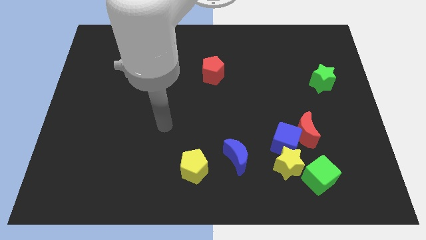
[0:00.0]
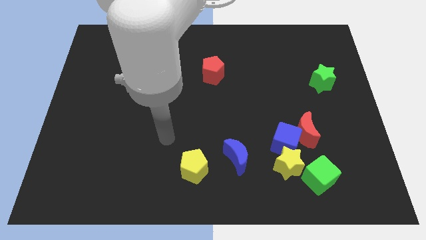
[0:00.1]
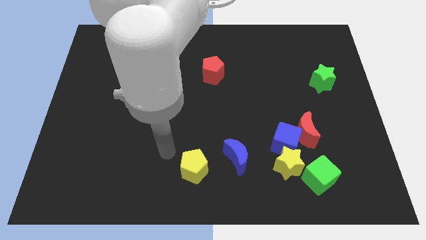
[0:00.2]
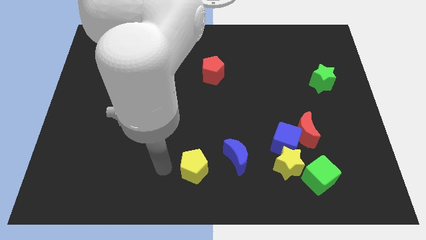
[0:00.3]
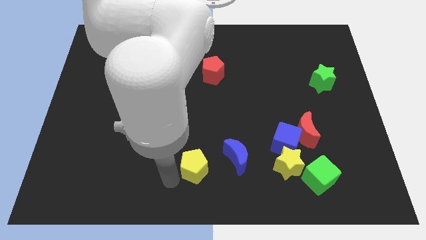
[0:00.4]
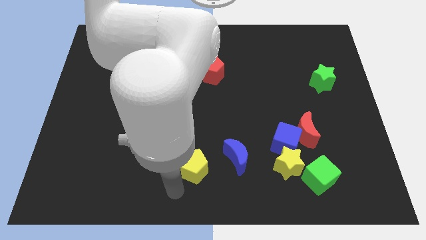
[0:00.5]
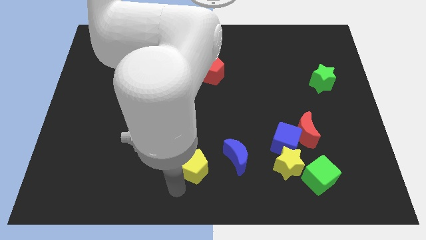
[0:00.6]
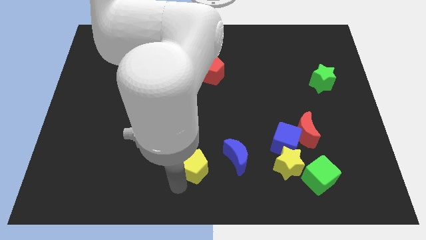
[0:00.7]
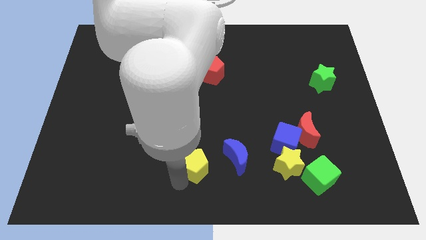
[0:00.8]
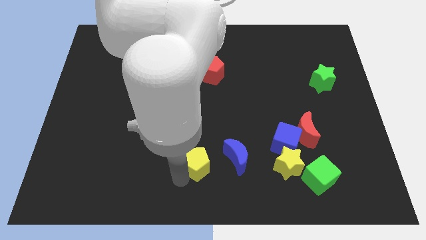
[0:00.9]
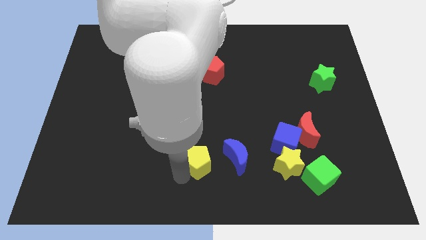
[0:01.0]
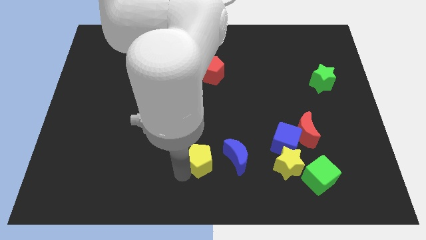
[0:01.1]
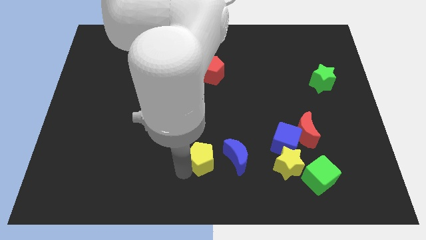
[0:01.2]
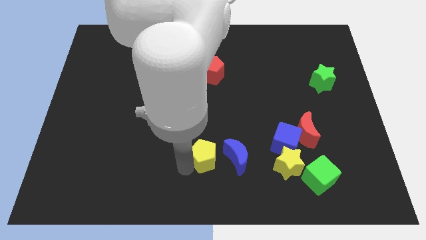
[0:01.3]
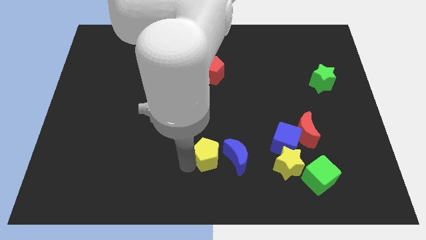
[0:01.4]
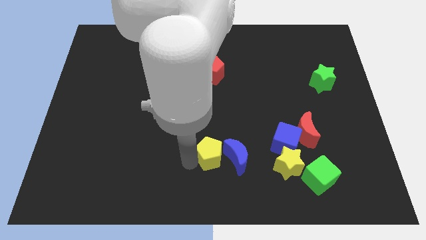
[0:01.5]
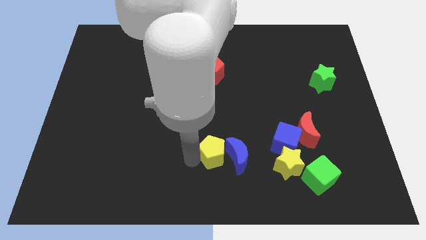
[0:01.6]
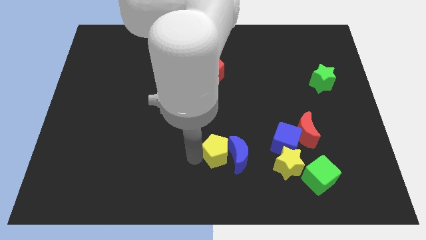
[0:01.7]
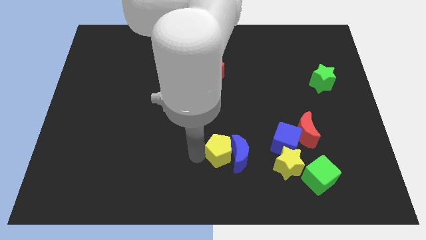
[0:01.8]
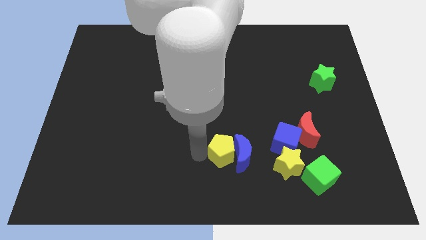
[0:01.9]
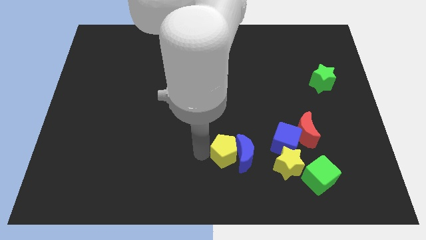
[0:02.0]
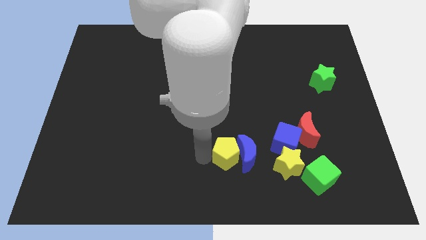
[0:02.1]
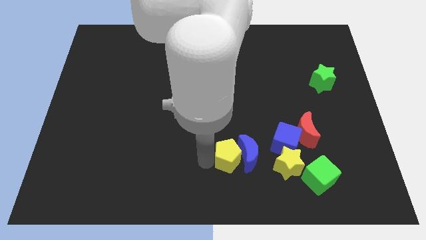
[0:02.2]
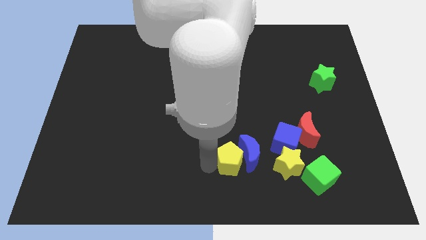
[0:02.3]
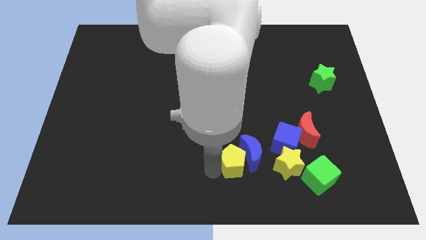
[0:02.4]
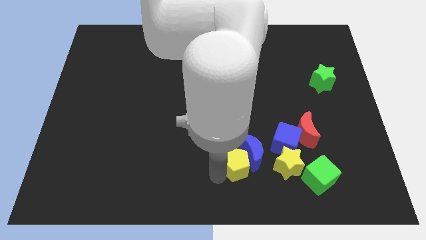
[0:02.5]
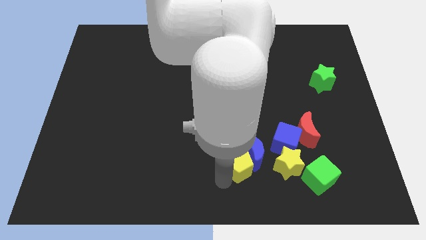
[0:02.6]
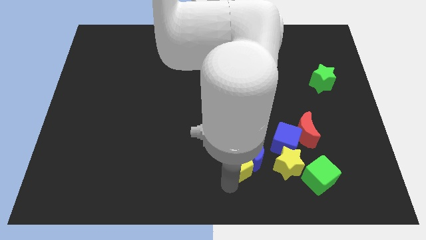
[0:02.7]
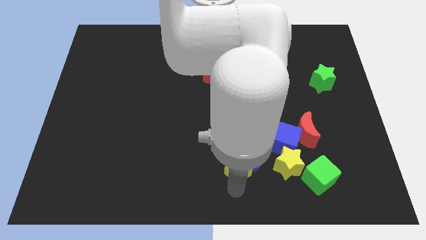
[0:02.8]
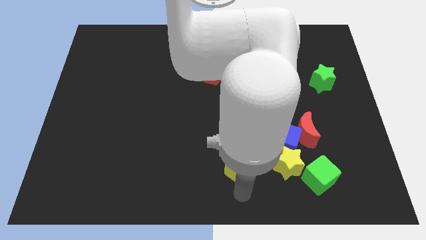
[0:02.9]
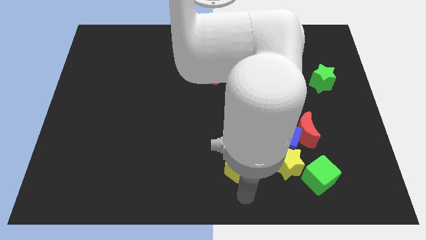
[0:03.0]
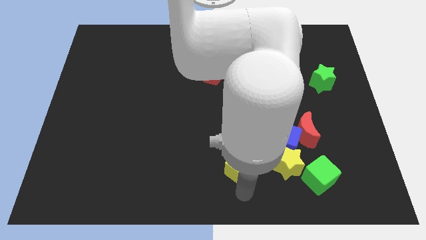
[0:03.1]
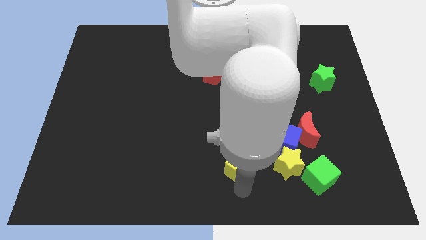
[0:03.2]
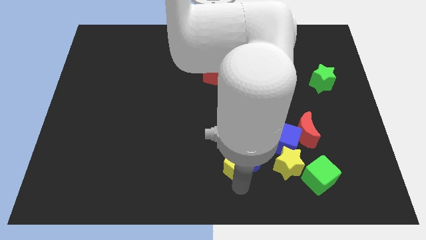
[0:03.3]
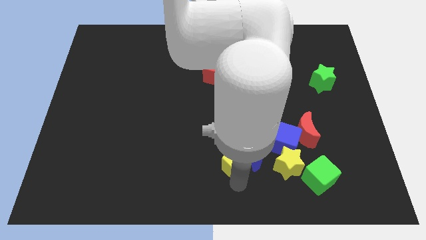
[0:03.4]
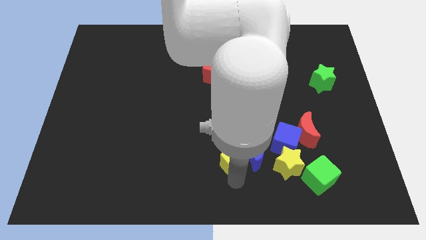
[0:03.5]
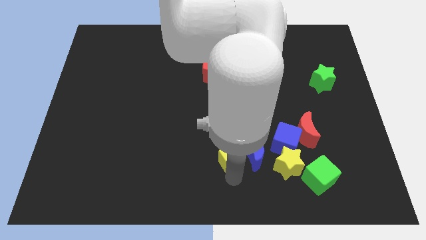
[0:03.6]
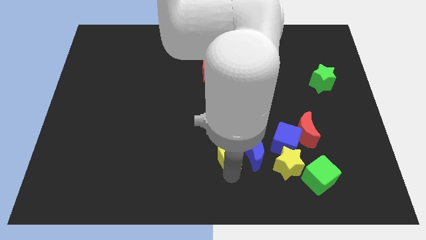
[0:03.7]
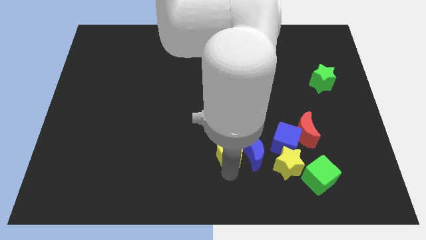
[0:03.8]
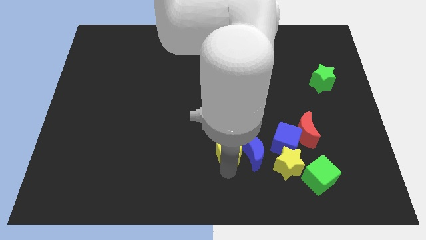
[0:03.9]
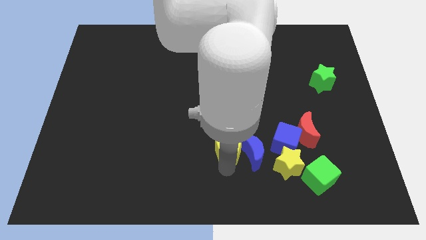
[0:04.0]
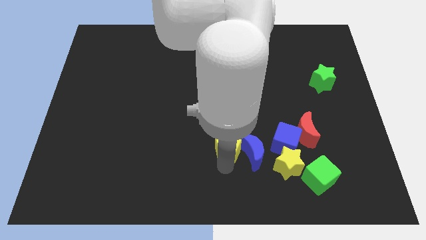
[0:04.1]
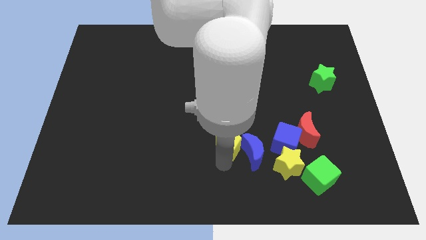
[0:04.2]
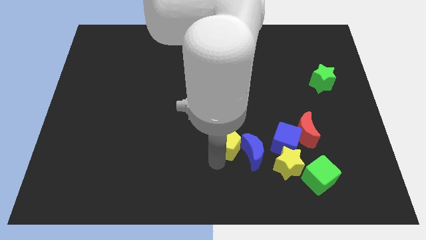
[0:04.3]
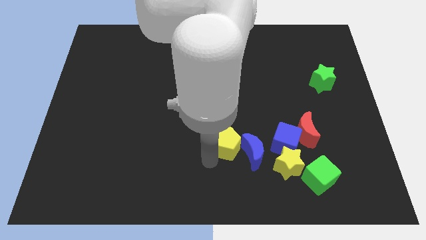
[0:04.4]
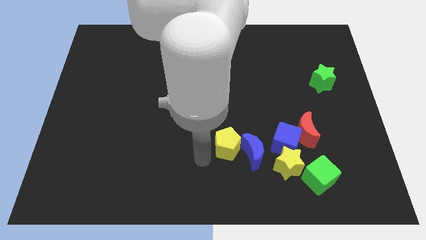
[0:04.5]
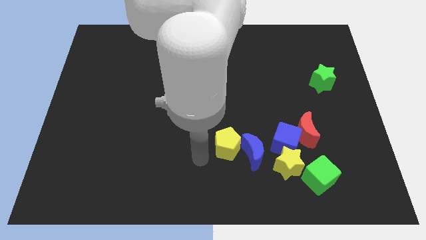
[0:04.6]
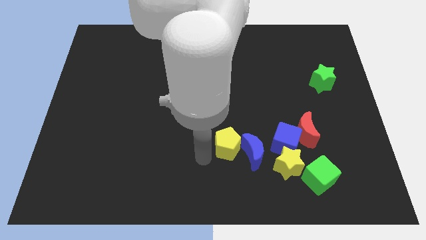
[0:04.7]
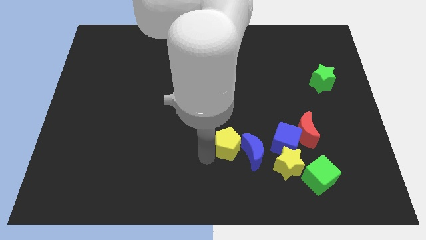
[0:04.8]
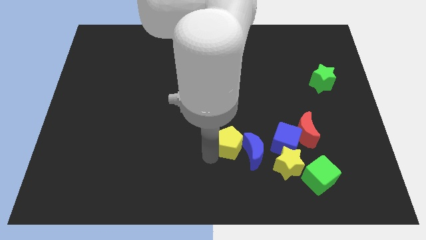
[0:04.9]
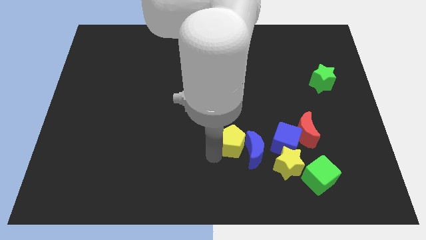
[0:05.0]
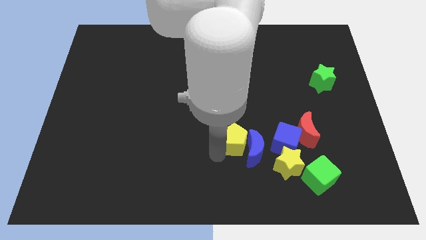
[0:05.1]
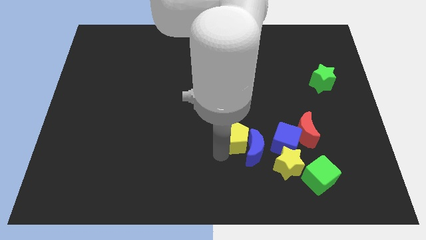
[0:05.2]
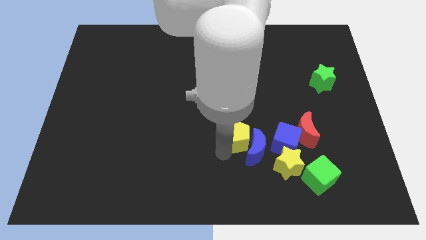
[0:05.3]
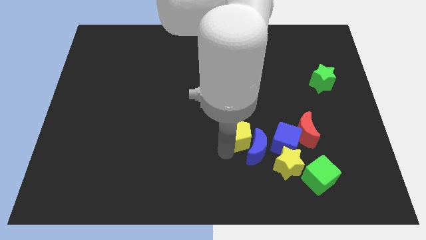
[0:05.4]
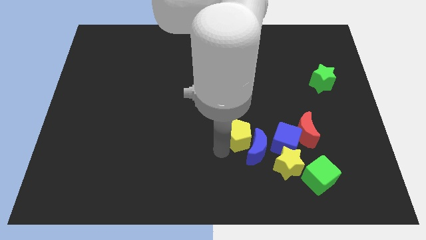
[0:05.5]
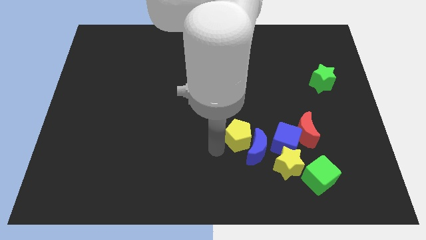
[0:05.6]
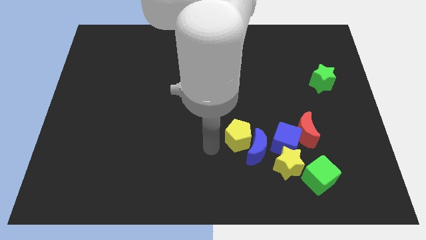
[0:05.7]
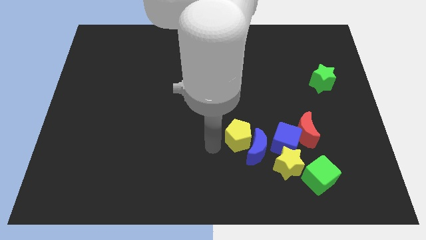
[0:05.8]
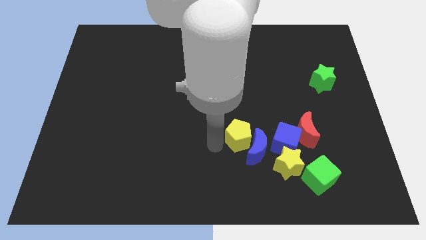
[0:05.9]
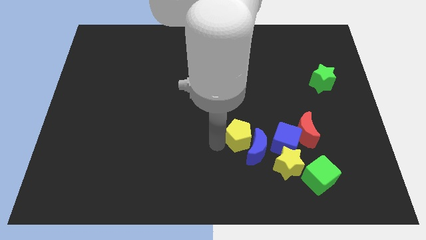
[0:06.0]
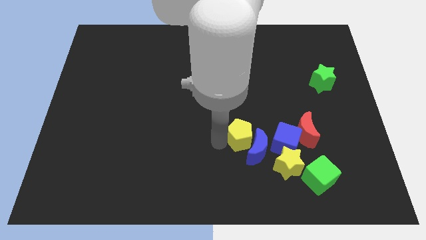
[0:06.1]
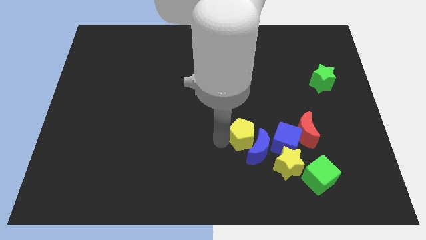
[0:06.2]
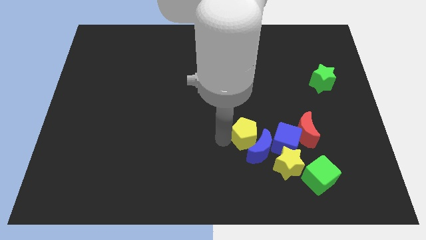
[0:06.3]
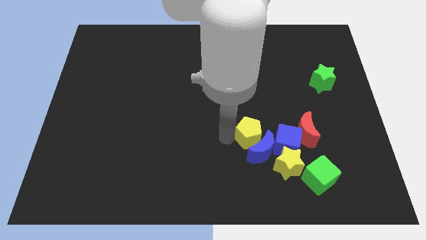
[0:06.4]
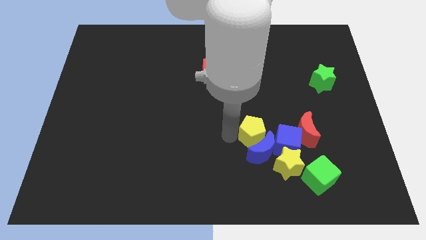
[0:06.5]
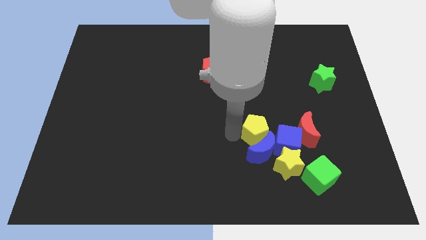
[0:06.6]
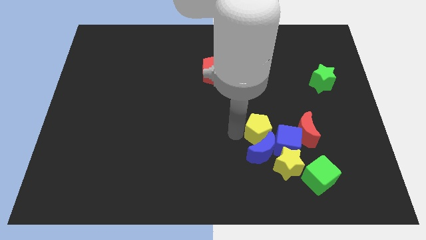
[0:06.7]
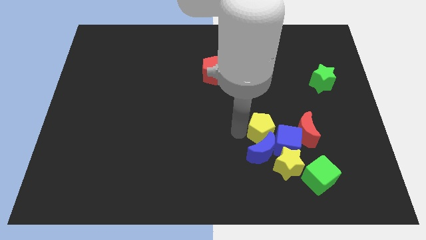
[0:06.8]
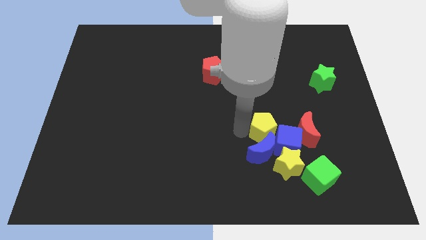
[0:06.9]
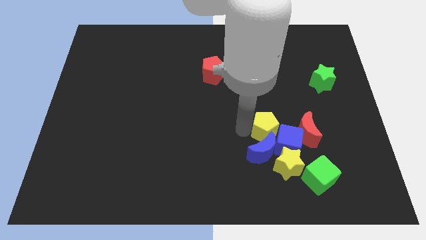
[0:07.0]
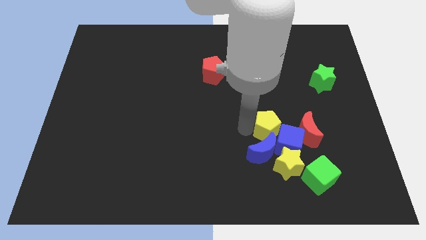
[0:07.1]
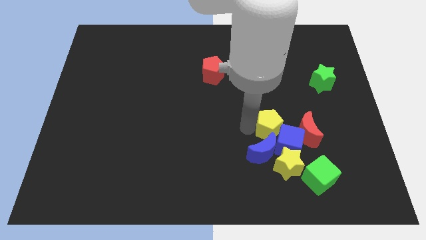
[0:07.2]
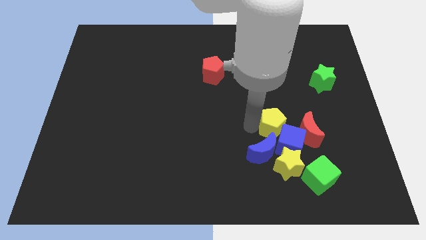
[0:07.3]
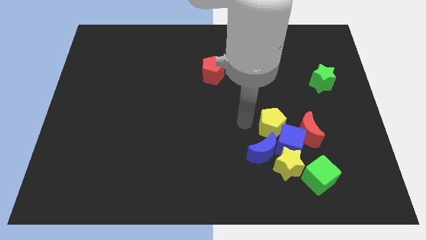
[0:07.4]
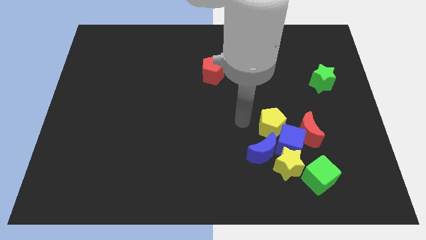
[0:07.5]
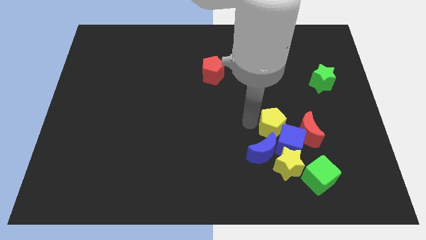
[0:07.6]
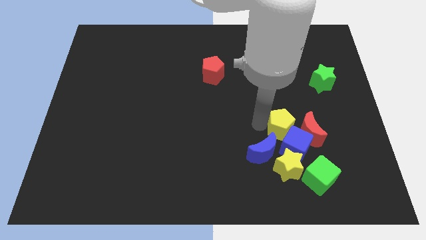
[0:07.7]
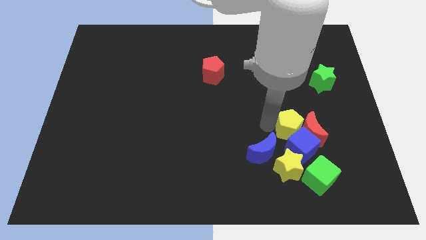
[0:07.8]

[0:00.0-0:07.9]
slide the yellow pentagon next to the red moon
